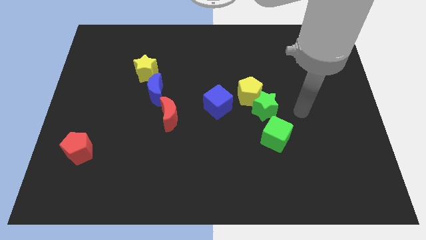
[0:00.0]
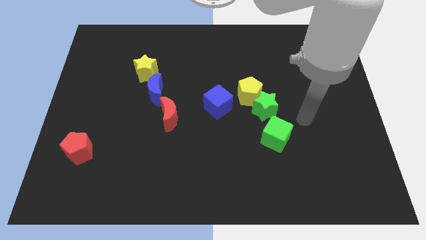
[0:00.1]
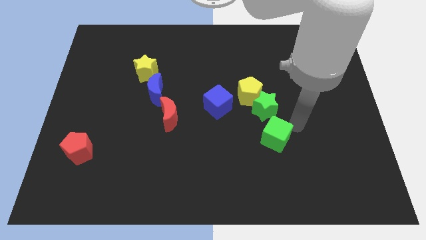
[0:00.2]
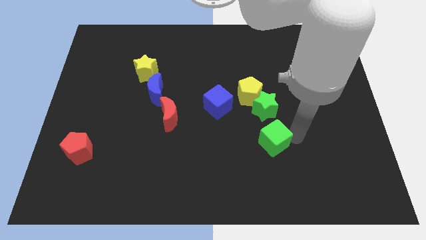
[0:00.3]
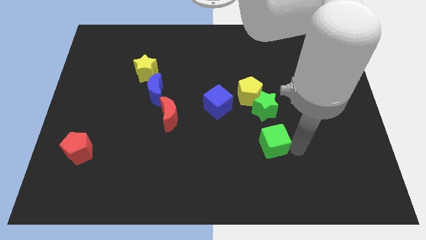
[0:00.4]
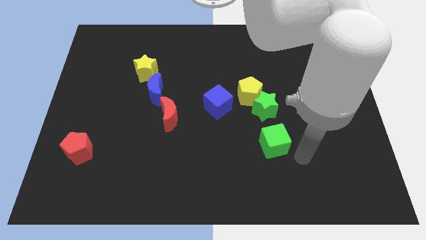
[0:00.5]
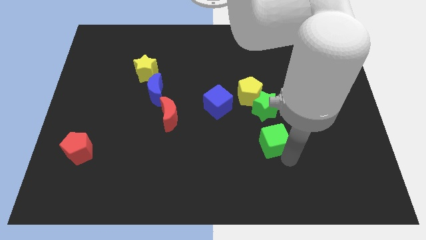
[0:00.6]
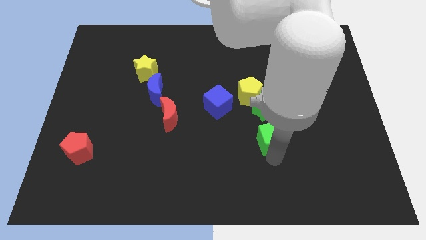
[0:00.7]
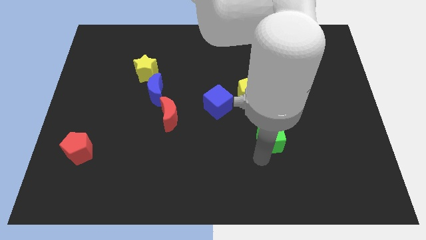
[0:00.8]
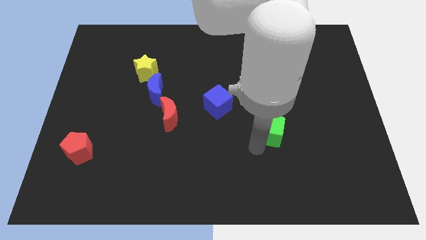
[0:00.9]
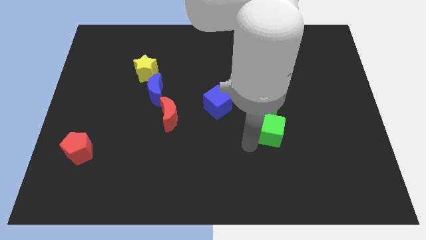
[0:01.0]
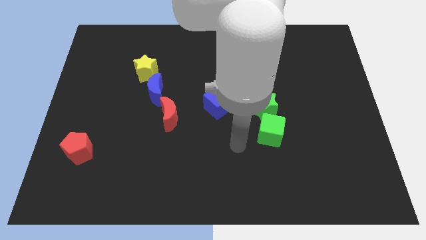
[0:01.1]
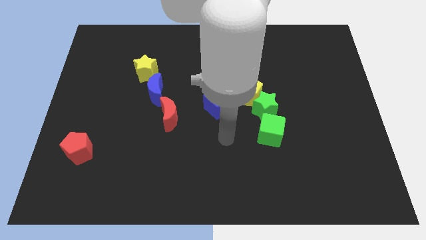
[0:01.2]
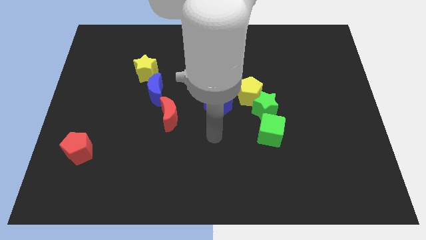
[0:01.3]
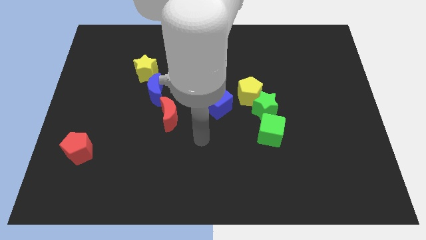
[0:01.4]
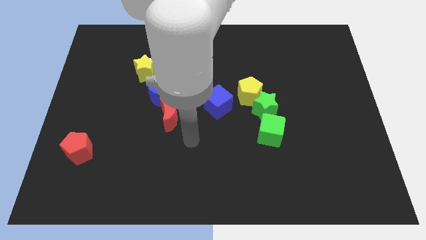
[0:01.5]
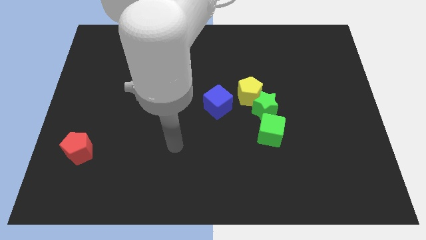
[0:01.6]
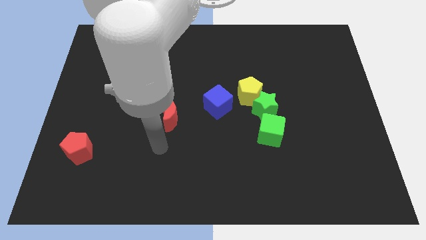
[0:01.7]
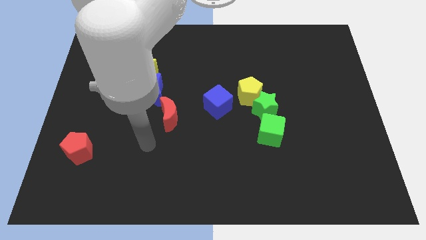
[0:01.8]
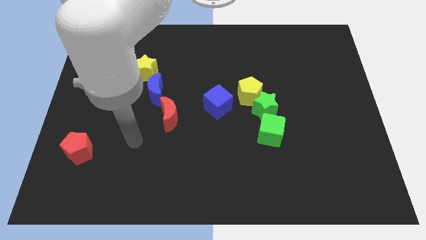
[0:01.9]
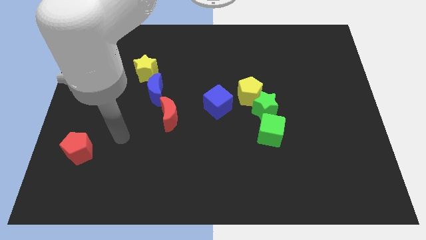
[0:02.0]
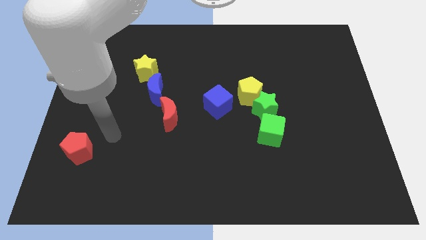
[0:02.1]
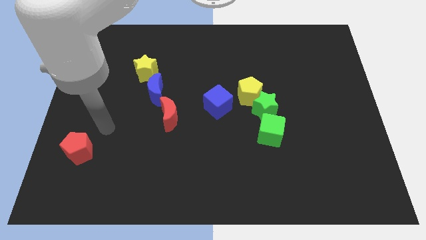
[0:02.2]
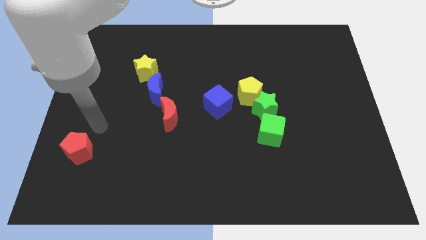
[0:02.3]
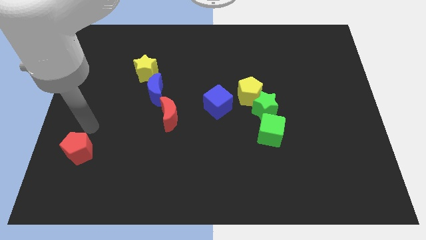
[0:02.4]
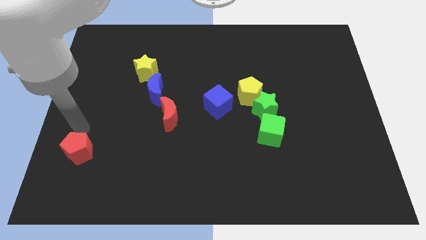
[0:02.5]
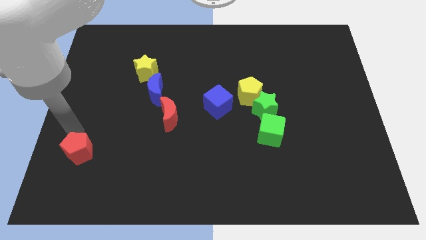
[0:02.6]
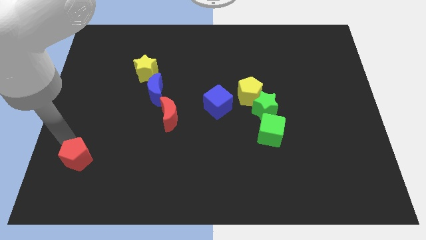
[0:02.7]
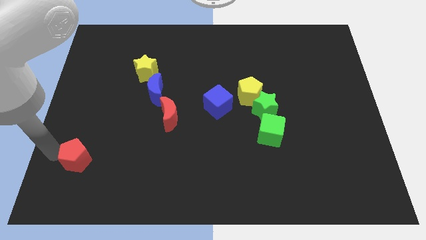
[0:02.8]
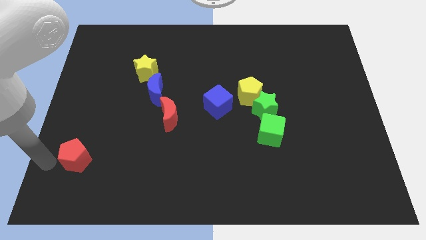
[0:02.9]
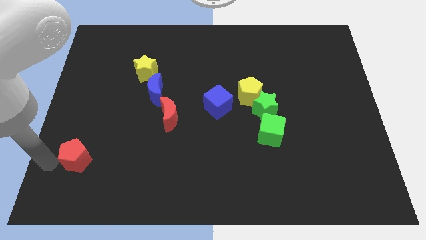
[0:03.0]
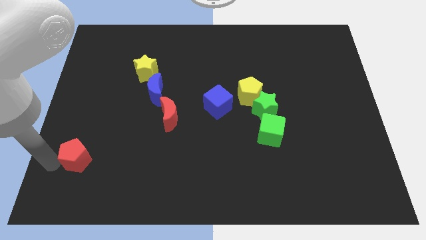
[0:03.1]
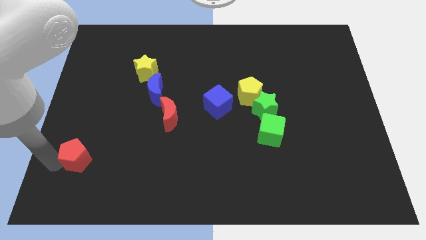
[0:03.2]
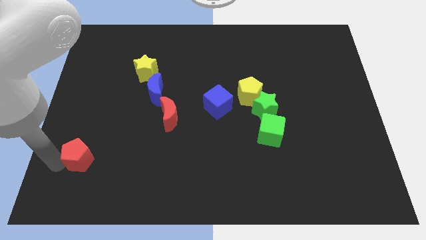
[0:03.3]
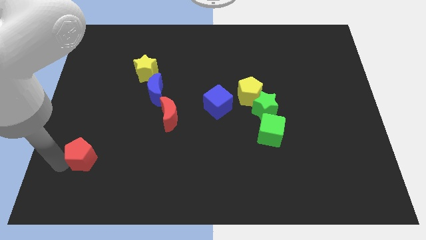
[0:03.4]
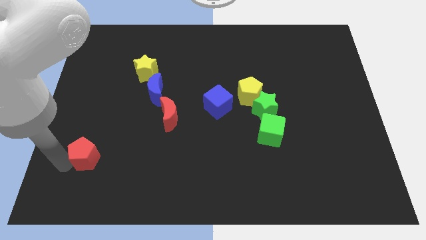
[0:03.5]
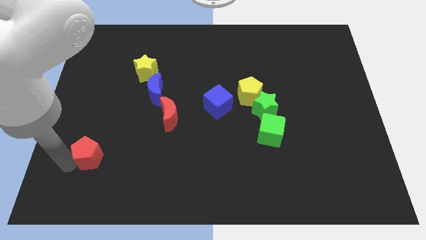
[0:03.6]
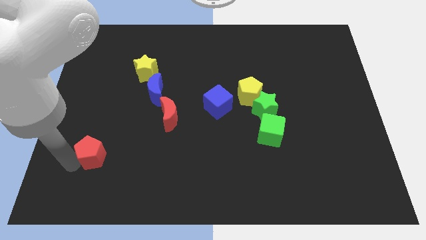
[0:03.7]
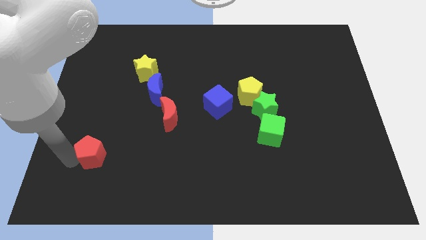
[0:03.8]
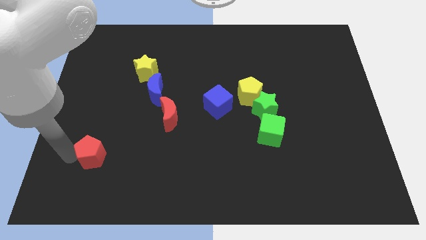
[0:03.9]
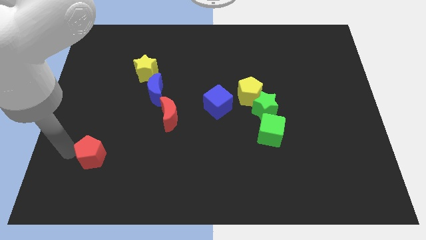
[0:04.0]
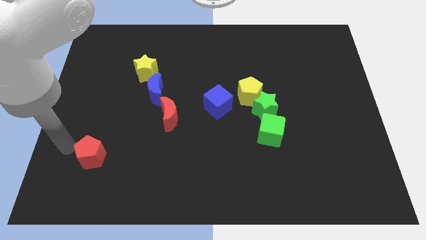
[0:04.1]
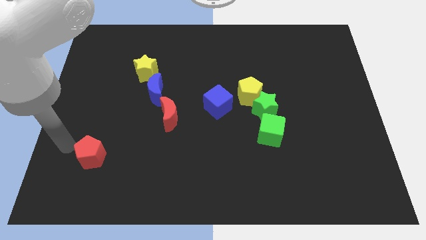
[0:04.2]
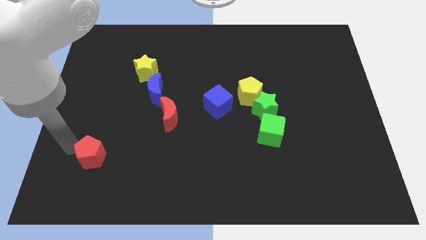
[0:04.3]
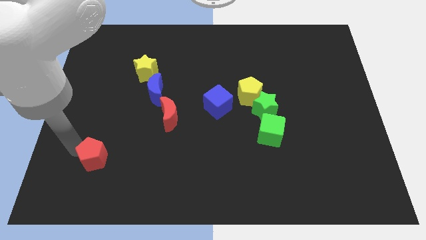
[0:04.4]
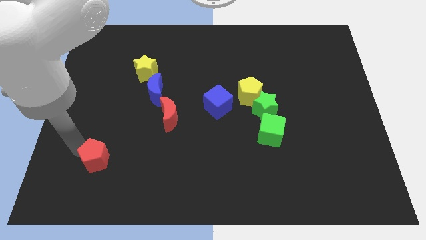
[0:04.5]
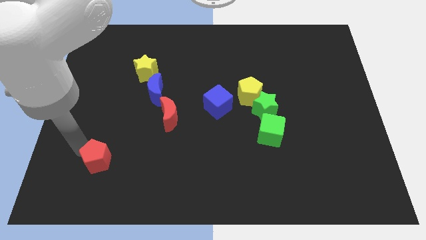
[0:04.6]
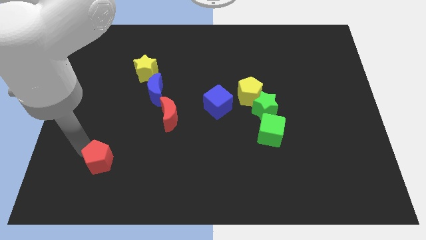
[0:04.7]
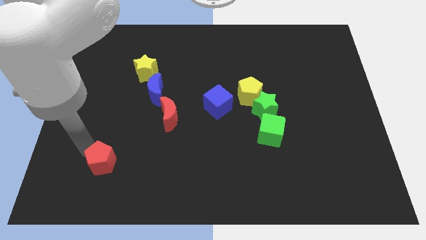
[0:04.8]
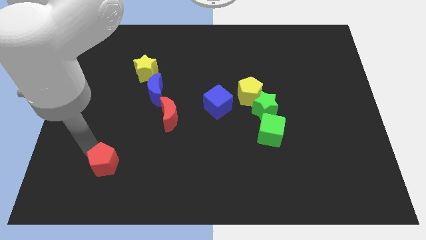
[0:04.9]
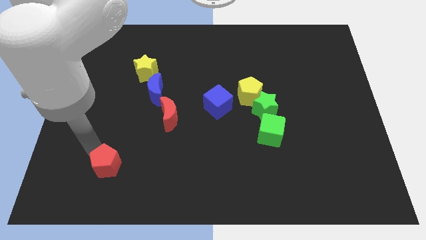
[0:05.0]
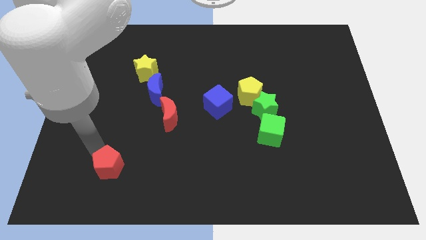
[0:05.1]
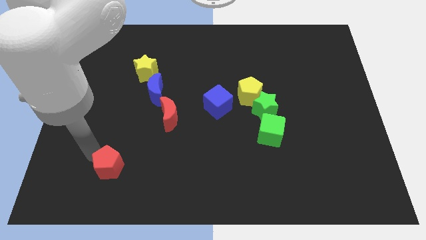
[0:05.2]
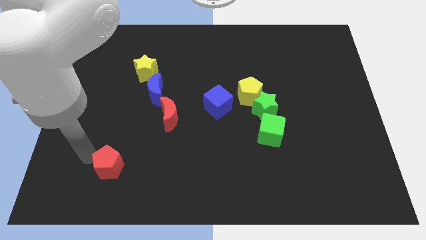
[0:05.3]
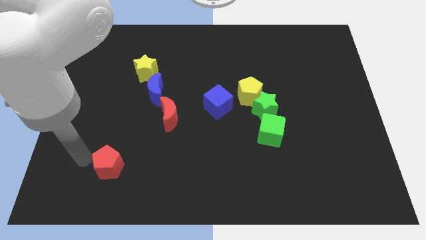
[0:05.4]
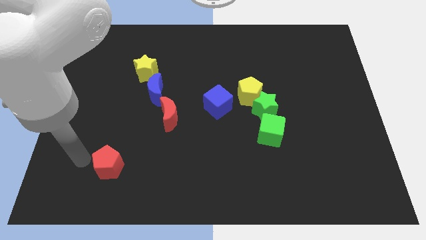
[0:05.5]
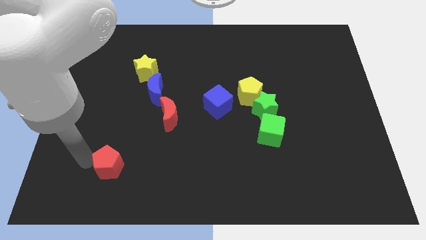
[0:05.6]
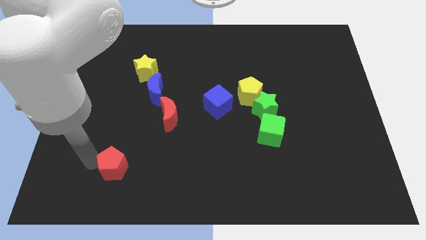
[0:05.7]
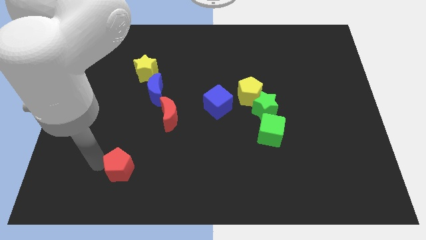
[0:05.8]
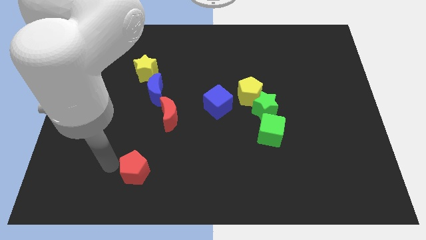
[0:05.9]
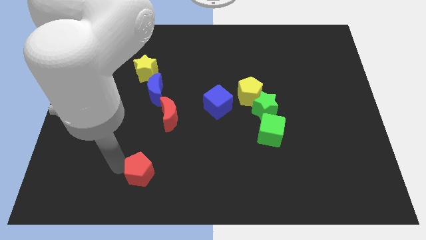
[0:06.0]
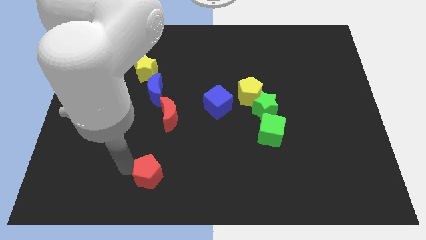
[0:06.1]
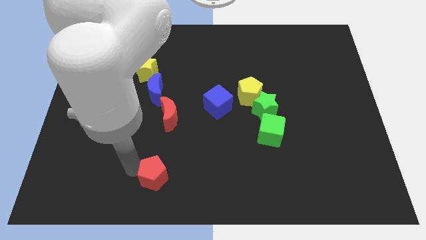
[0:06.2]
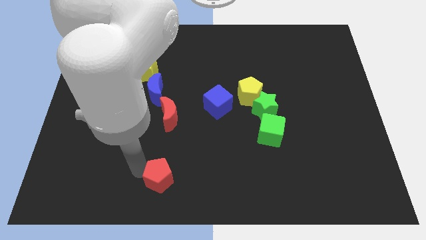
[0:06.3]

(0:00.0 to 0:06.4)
push the red pentagon to the bottom side

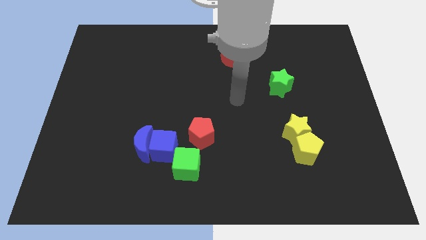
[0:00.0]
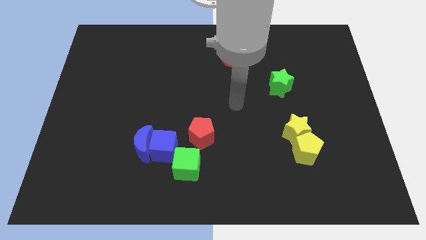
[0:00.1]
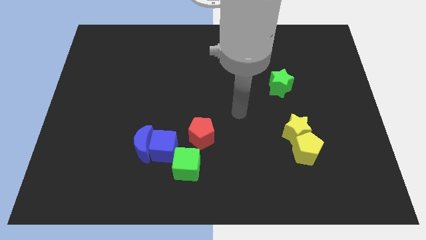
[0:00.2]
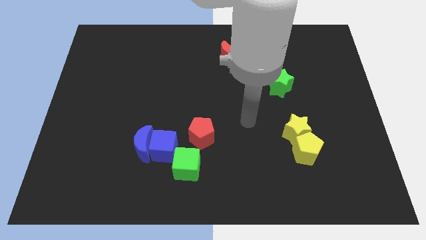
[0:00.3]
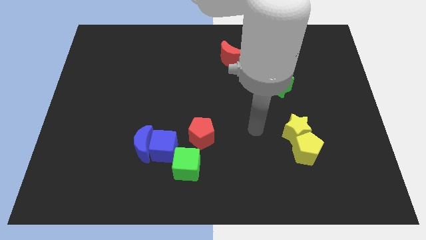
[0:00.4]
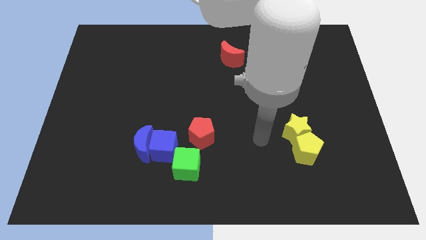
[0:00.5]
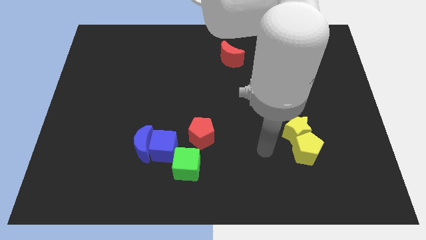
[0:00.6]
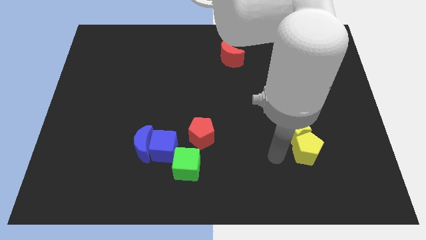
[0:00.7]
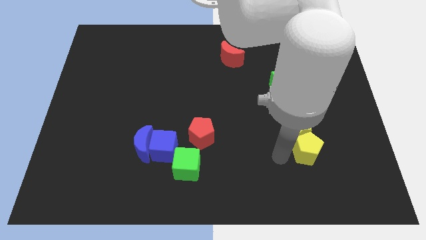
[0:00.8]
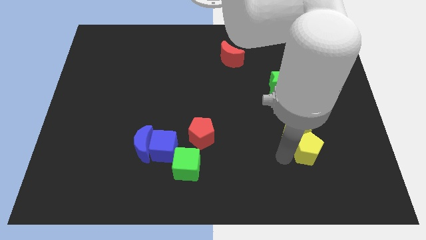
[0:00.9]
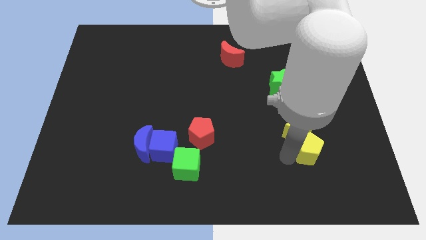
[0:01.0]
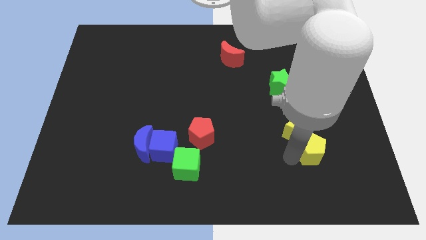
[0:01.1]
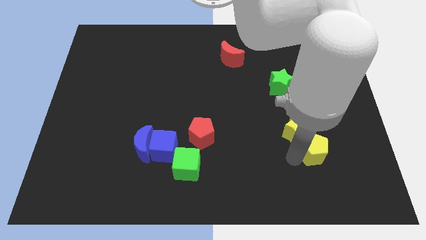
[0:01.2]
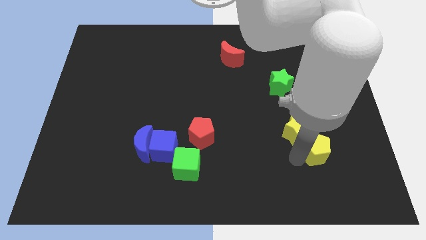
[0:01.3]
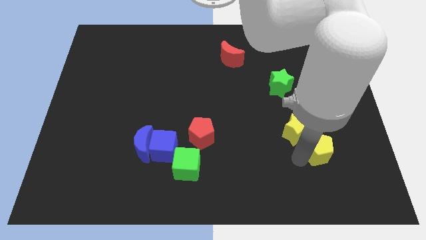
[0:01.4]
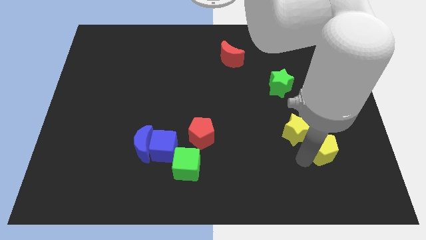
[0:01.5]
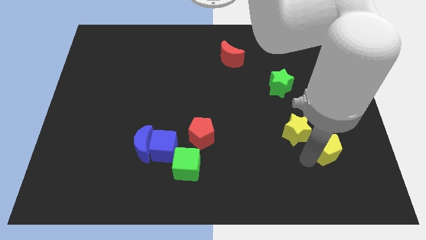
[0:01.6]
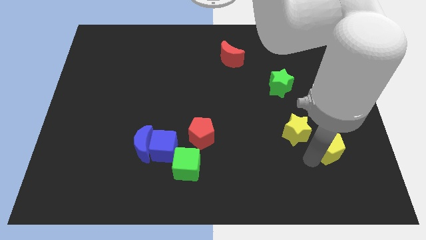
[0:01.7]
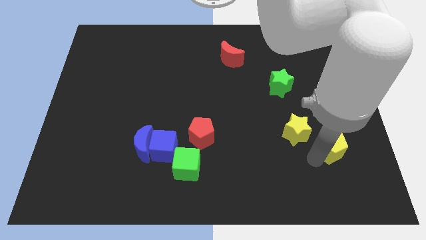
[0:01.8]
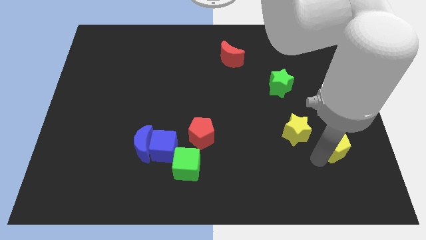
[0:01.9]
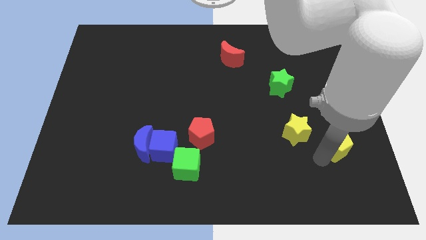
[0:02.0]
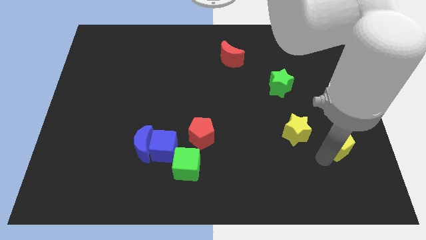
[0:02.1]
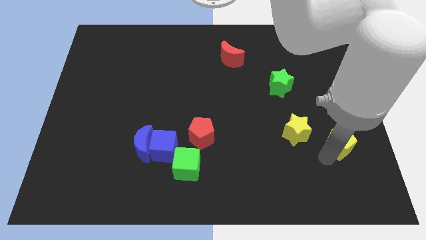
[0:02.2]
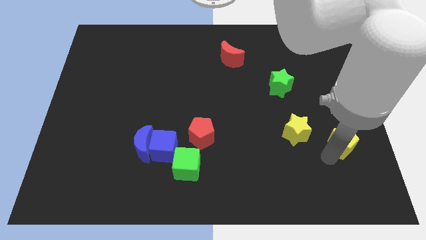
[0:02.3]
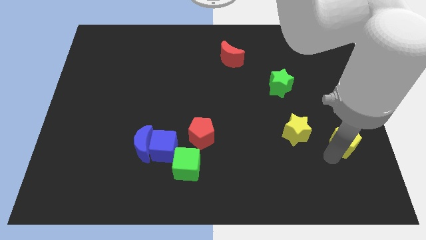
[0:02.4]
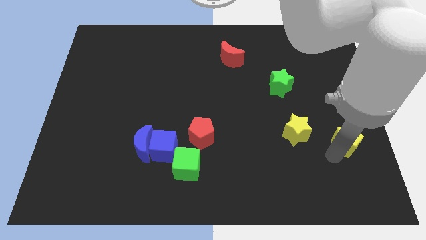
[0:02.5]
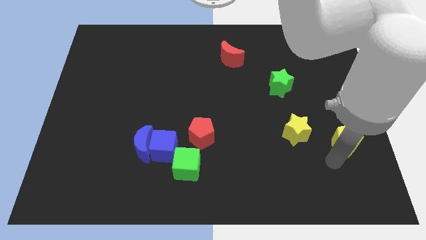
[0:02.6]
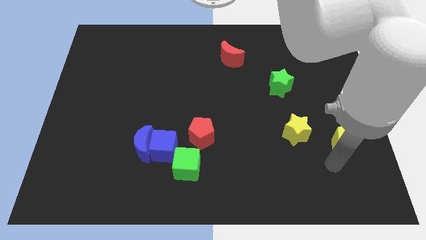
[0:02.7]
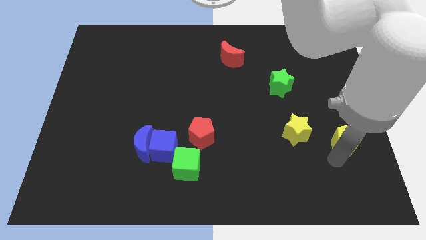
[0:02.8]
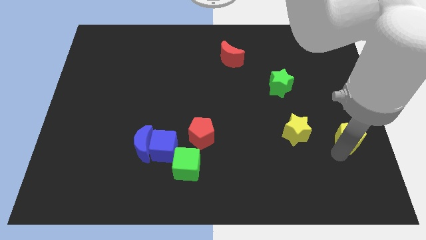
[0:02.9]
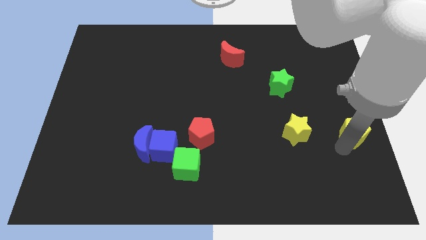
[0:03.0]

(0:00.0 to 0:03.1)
slide the yellow pentagon to the right side
